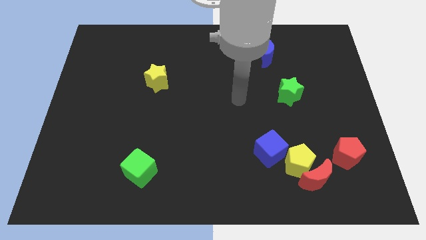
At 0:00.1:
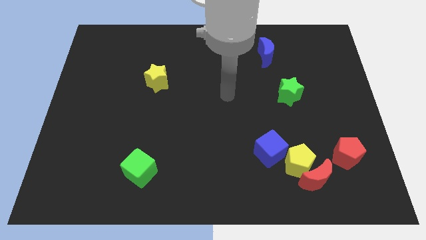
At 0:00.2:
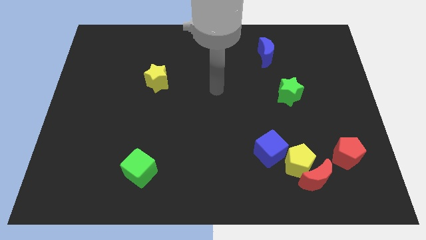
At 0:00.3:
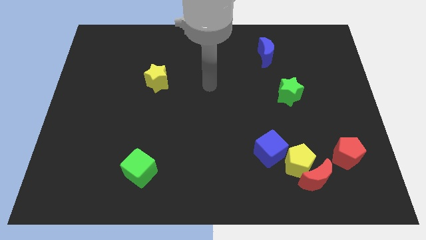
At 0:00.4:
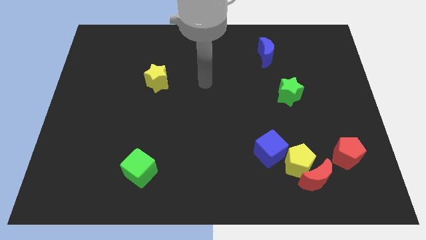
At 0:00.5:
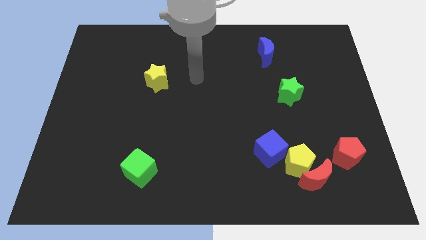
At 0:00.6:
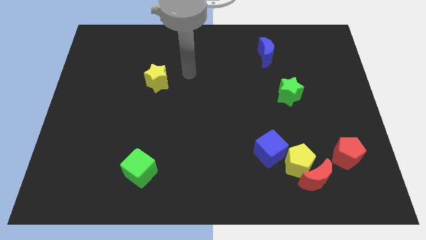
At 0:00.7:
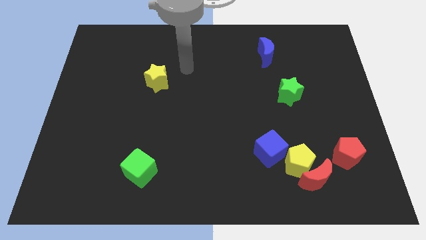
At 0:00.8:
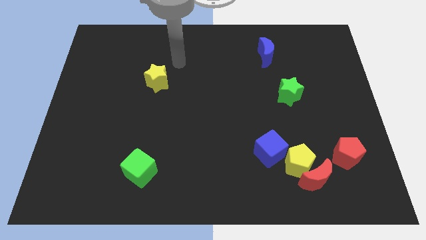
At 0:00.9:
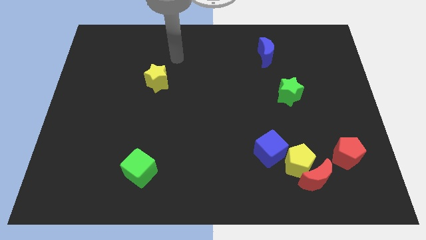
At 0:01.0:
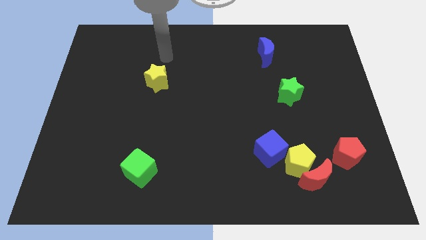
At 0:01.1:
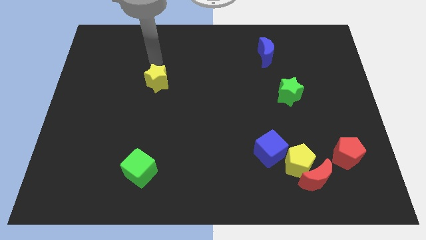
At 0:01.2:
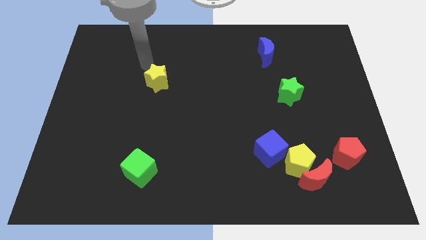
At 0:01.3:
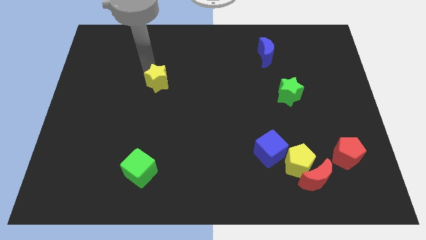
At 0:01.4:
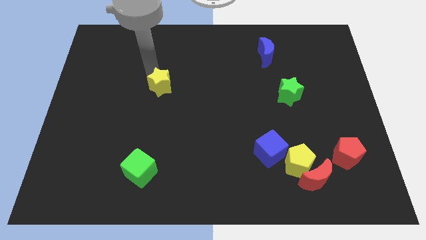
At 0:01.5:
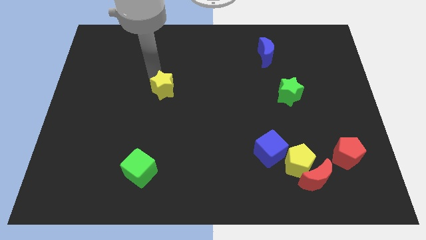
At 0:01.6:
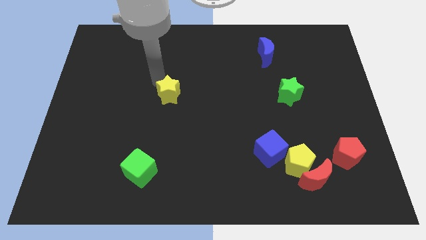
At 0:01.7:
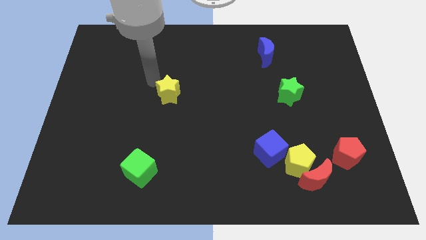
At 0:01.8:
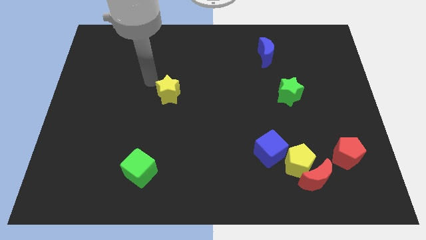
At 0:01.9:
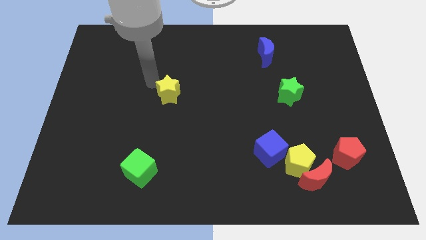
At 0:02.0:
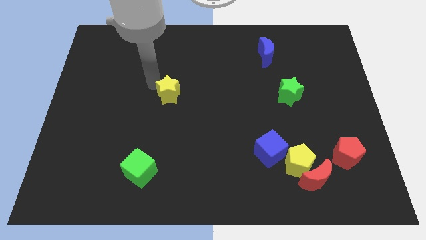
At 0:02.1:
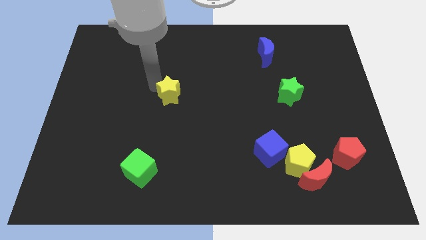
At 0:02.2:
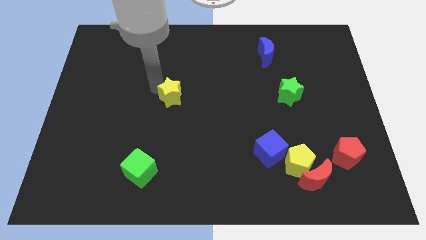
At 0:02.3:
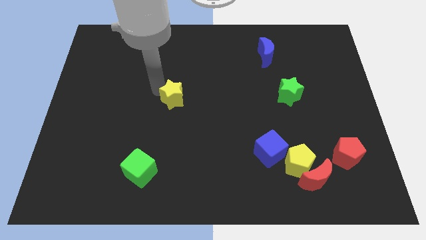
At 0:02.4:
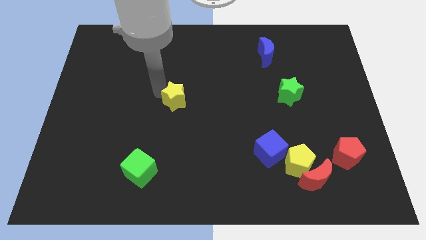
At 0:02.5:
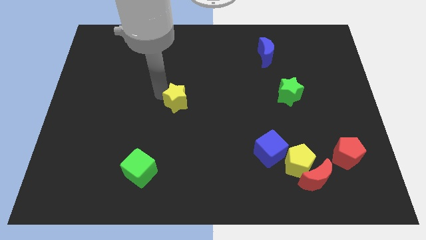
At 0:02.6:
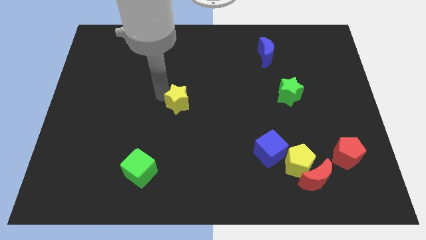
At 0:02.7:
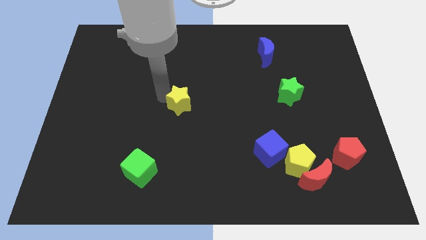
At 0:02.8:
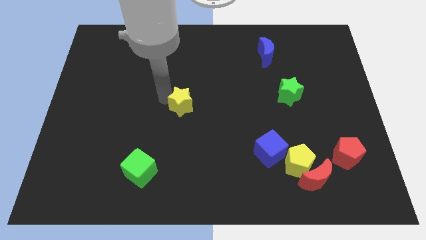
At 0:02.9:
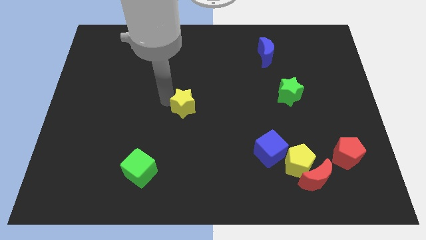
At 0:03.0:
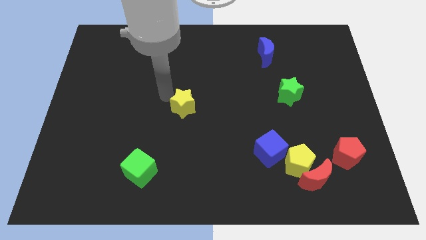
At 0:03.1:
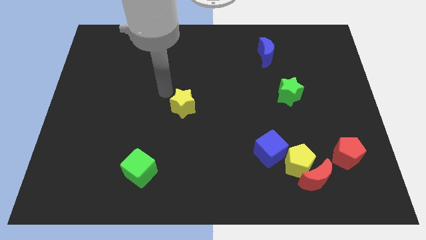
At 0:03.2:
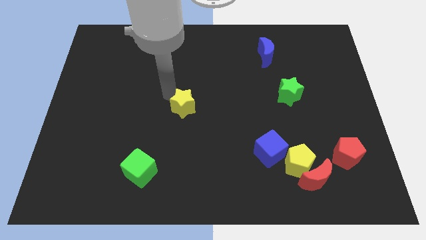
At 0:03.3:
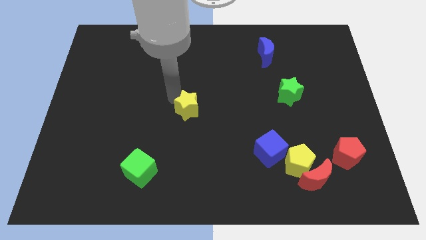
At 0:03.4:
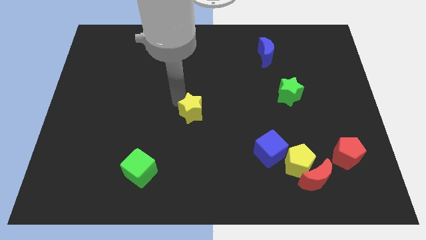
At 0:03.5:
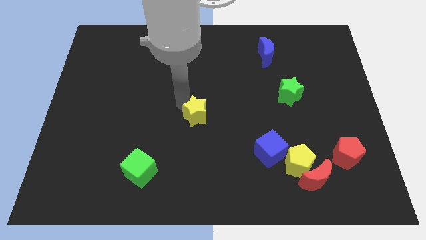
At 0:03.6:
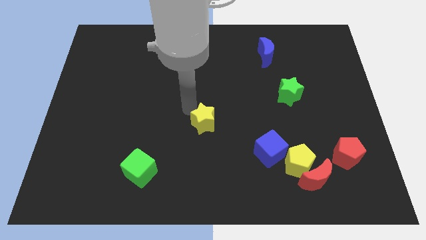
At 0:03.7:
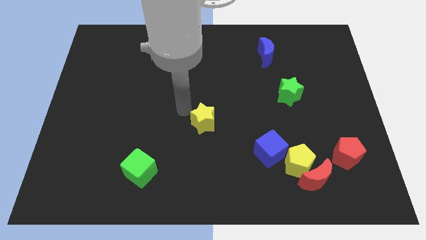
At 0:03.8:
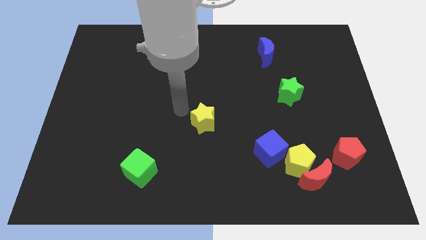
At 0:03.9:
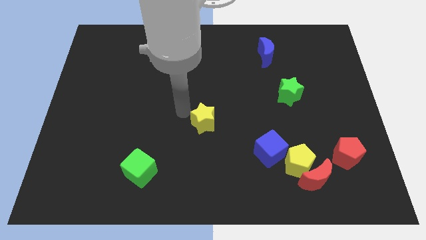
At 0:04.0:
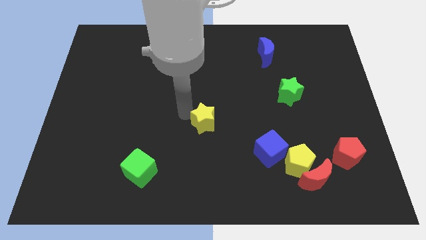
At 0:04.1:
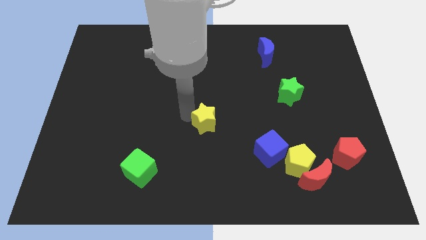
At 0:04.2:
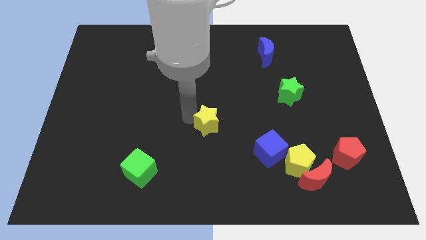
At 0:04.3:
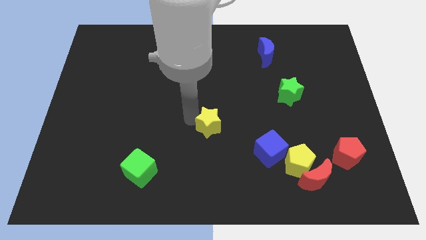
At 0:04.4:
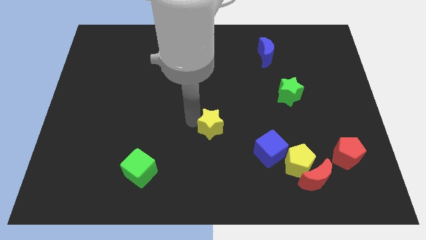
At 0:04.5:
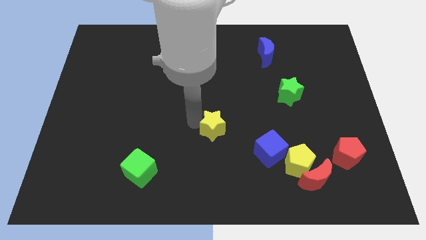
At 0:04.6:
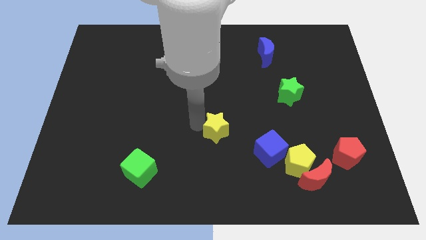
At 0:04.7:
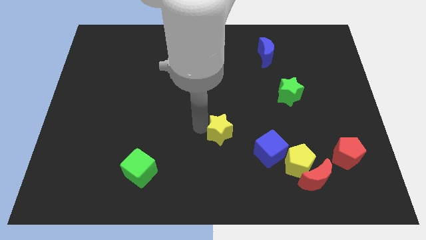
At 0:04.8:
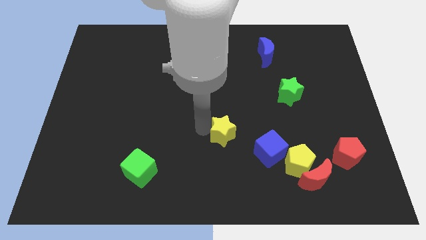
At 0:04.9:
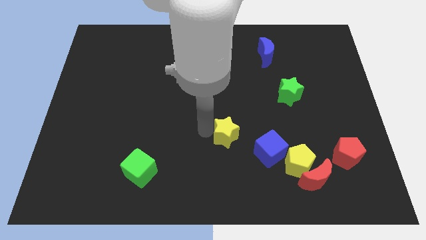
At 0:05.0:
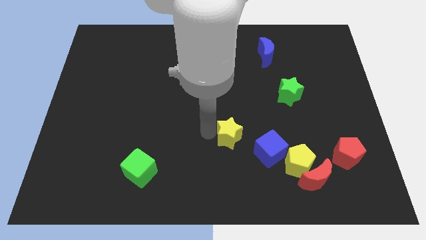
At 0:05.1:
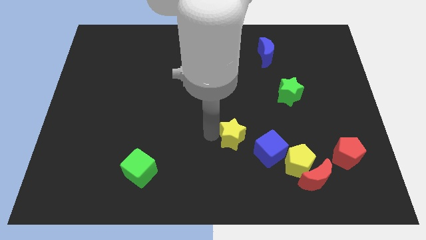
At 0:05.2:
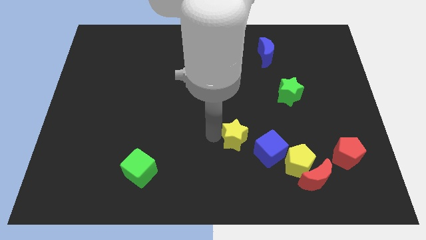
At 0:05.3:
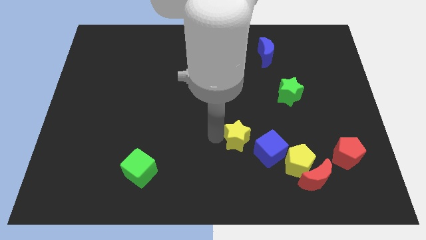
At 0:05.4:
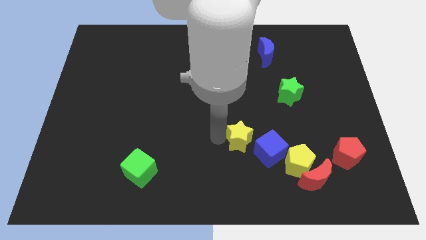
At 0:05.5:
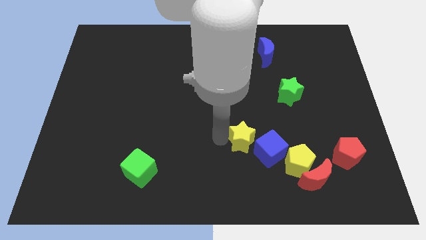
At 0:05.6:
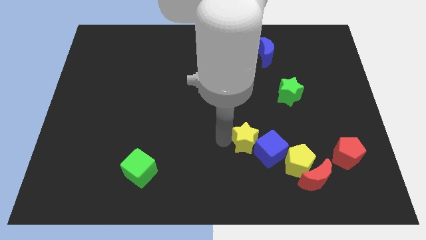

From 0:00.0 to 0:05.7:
put the yellow star towards the blue cube

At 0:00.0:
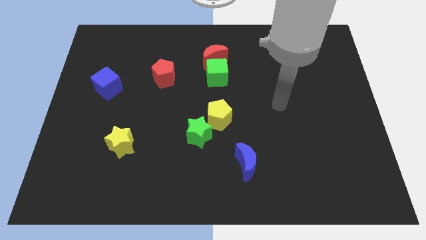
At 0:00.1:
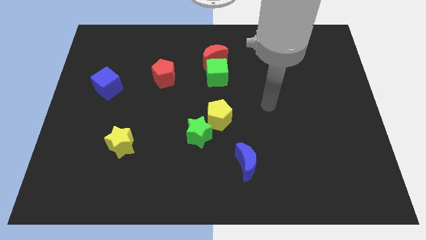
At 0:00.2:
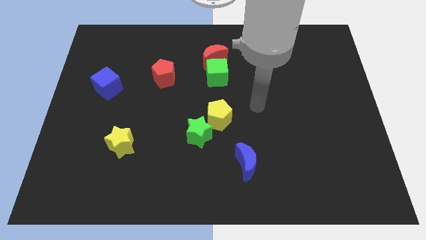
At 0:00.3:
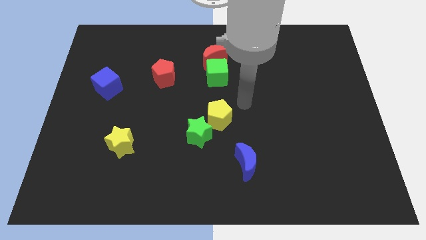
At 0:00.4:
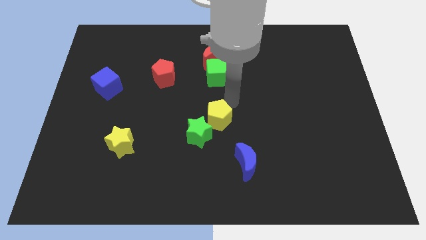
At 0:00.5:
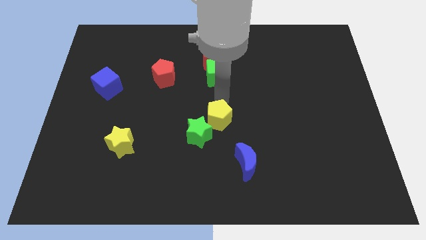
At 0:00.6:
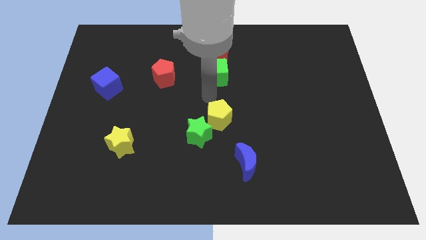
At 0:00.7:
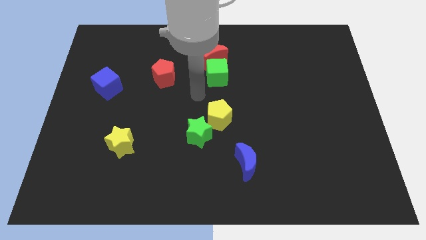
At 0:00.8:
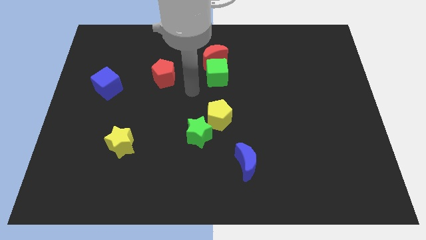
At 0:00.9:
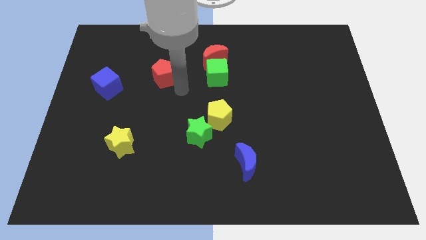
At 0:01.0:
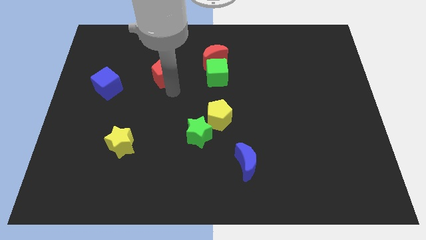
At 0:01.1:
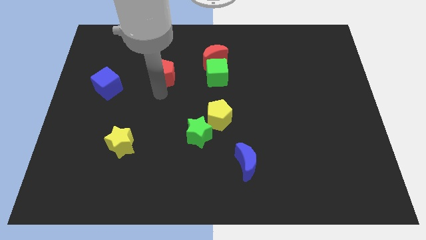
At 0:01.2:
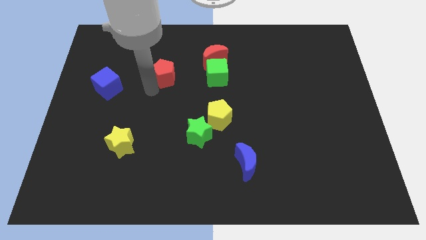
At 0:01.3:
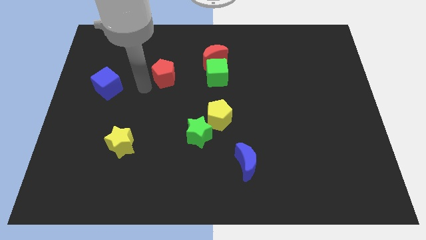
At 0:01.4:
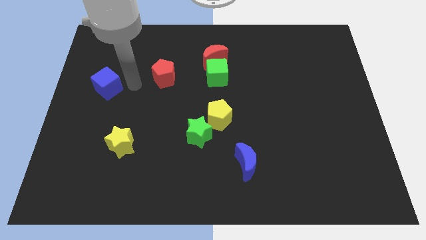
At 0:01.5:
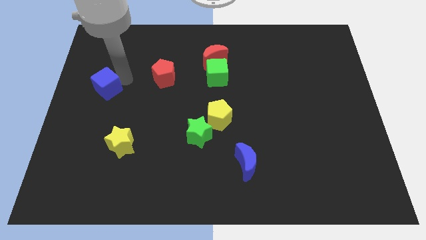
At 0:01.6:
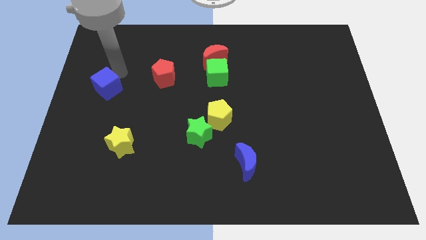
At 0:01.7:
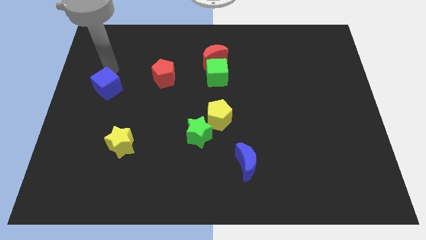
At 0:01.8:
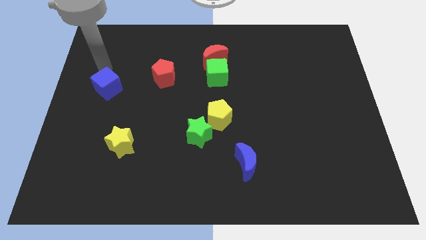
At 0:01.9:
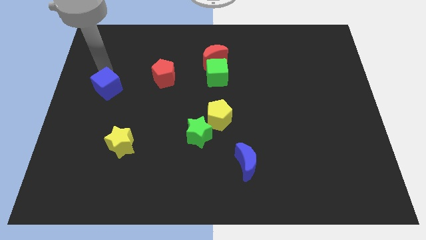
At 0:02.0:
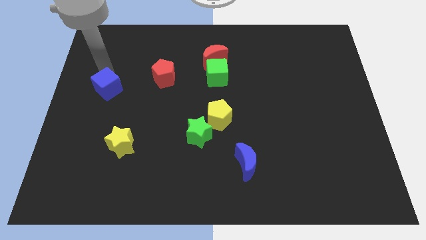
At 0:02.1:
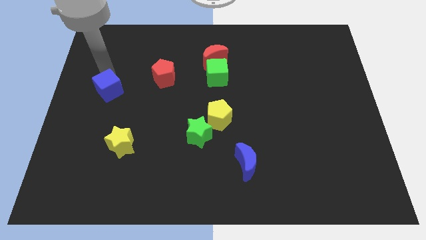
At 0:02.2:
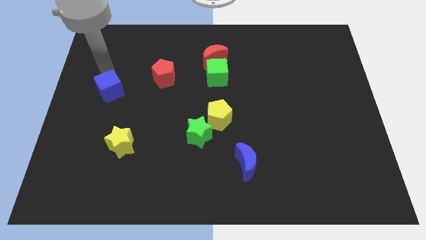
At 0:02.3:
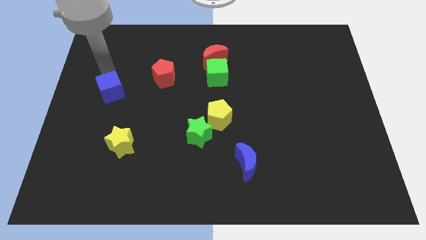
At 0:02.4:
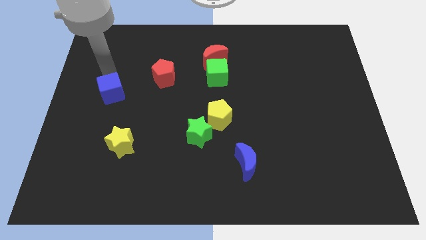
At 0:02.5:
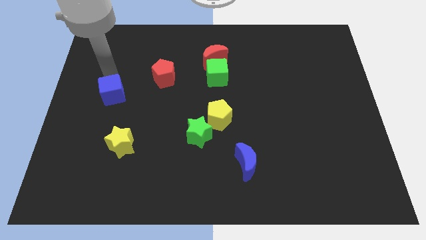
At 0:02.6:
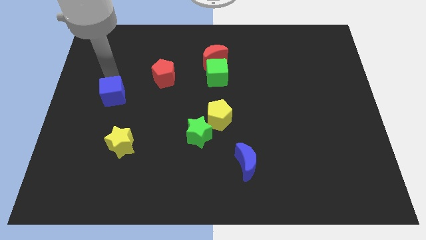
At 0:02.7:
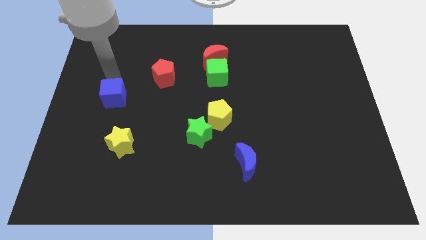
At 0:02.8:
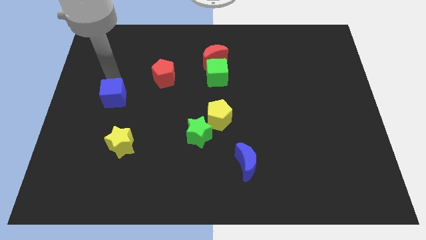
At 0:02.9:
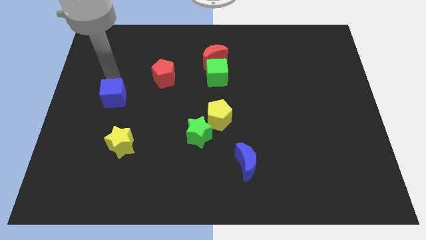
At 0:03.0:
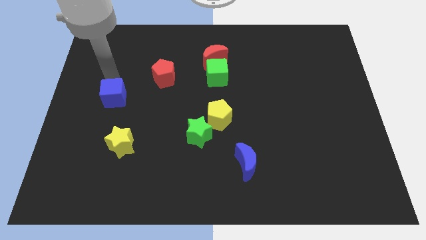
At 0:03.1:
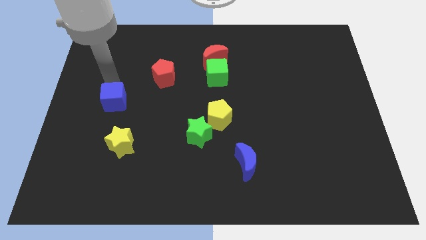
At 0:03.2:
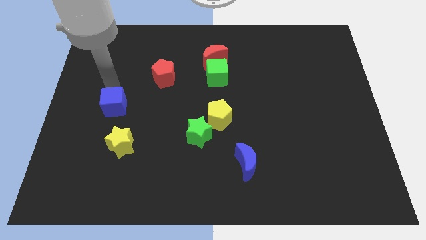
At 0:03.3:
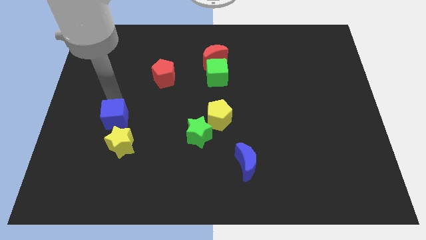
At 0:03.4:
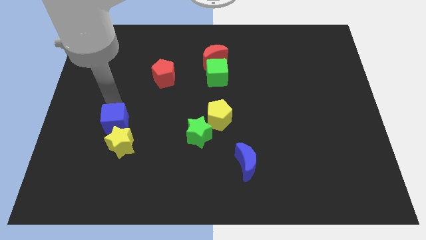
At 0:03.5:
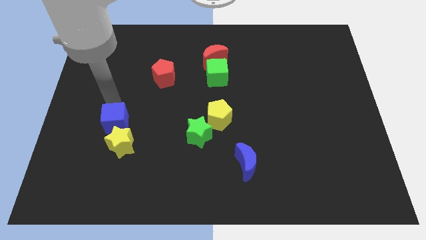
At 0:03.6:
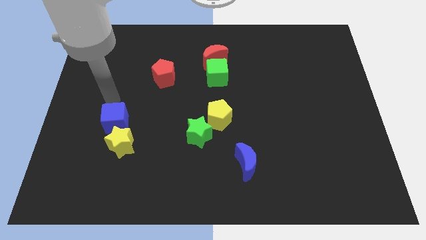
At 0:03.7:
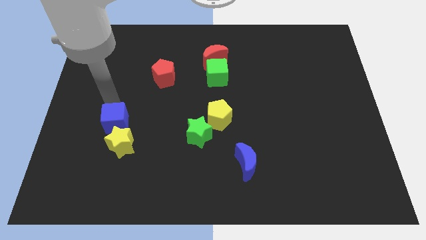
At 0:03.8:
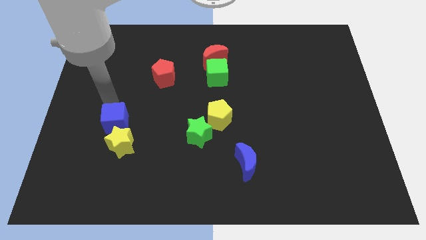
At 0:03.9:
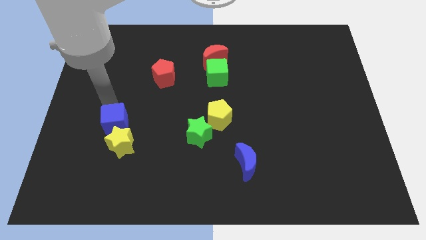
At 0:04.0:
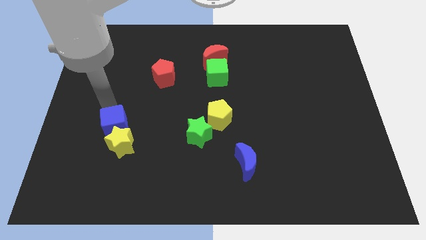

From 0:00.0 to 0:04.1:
put the blue cube next to the yellow star
